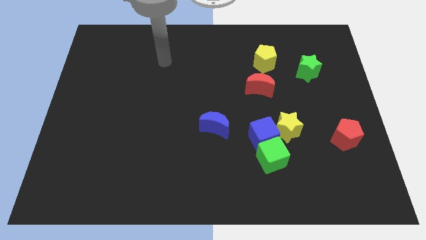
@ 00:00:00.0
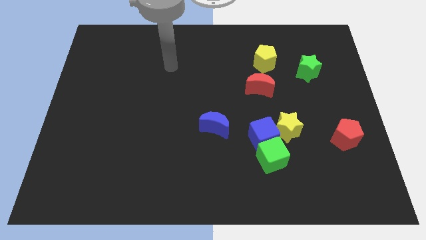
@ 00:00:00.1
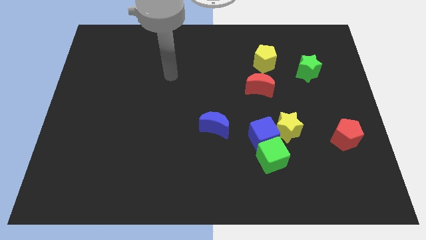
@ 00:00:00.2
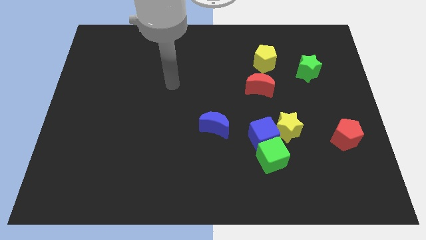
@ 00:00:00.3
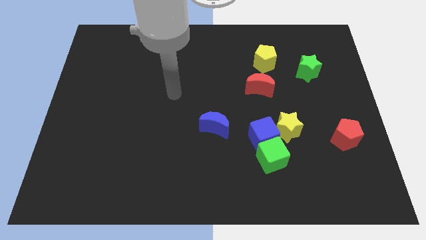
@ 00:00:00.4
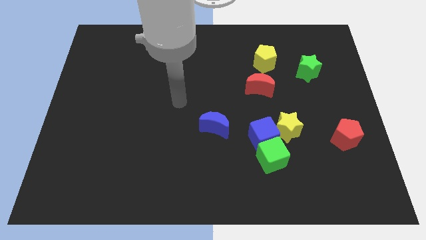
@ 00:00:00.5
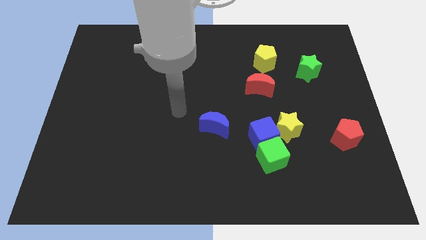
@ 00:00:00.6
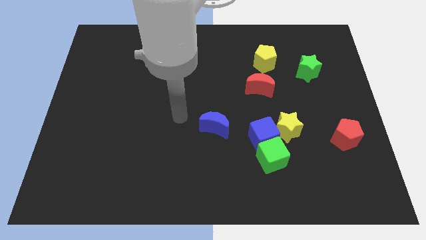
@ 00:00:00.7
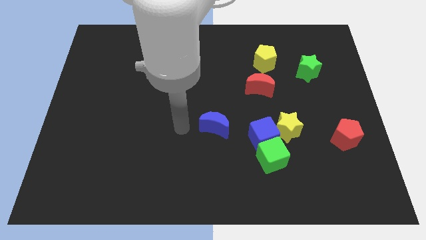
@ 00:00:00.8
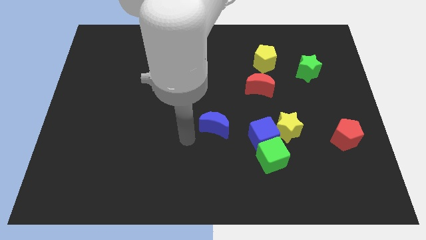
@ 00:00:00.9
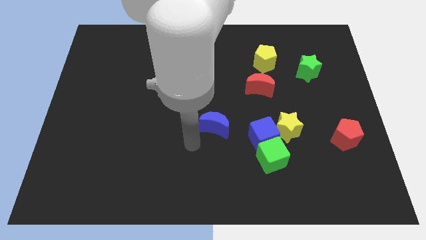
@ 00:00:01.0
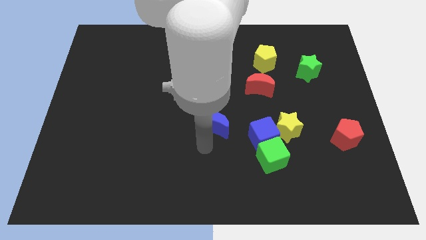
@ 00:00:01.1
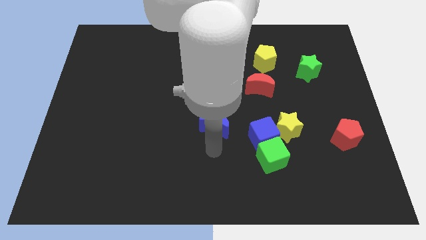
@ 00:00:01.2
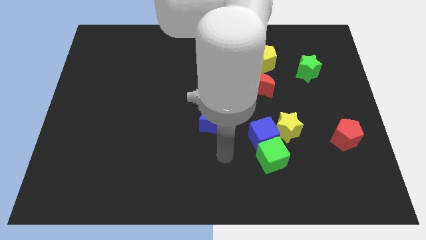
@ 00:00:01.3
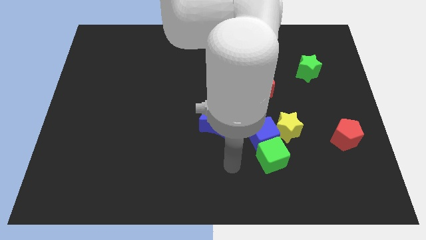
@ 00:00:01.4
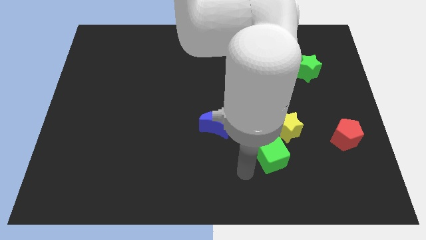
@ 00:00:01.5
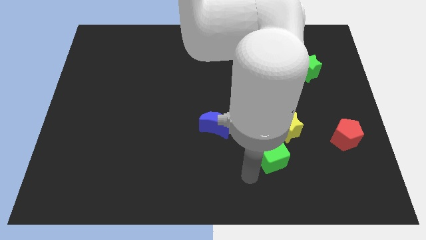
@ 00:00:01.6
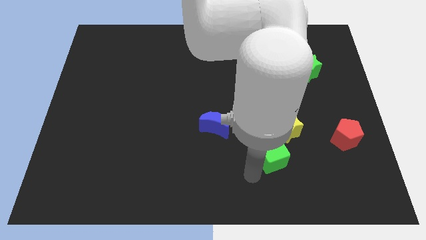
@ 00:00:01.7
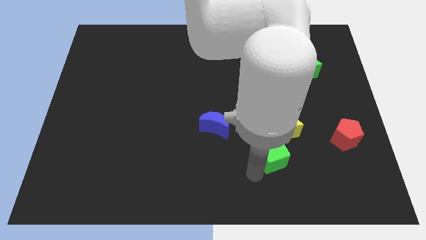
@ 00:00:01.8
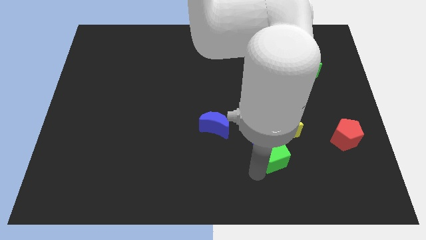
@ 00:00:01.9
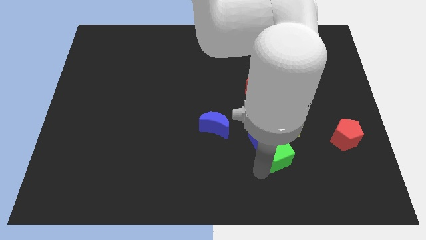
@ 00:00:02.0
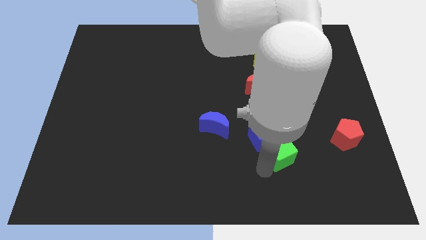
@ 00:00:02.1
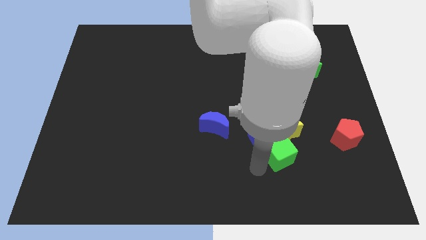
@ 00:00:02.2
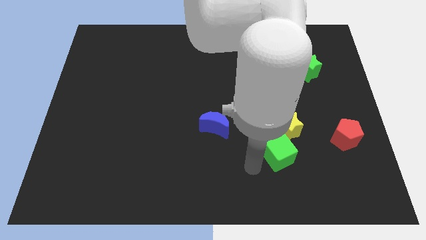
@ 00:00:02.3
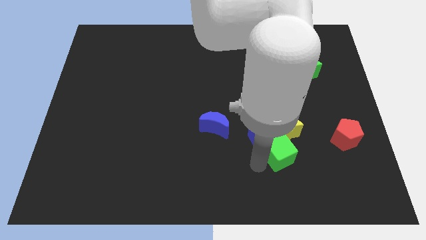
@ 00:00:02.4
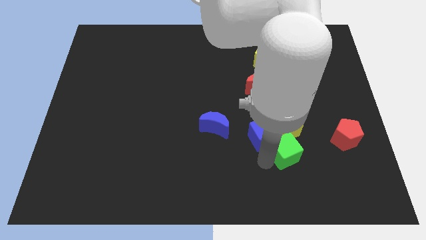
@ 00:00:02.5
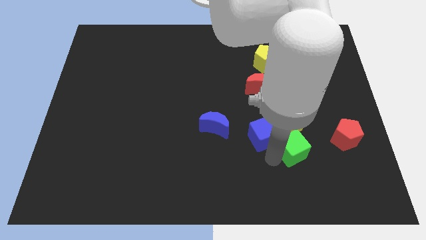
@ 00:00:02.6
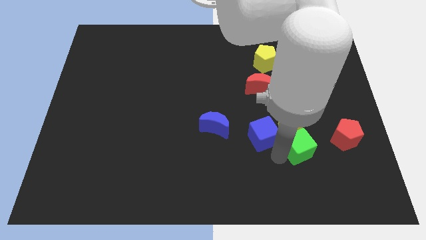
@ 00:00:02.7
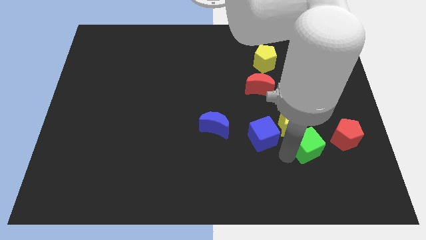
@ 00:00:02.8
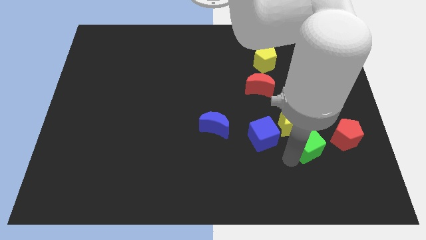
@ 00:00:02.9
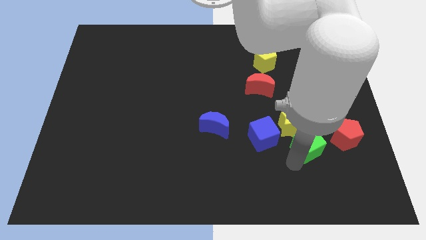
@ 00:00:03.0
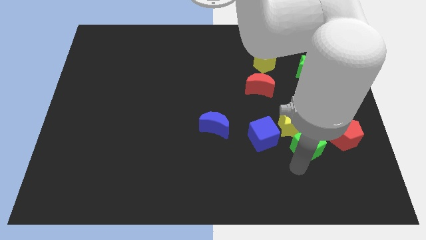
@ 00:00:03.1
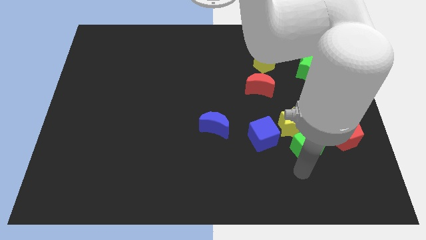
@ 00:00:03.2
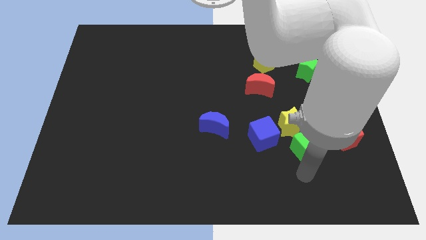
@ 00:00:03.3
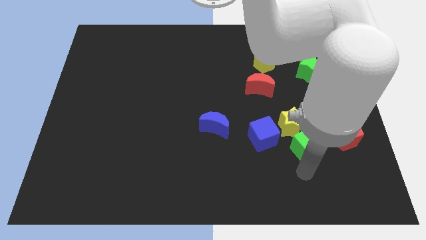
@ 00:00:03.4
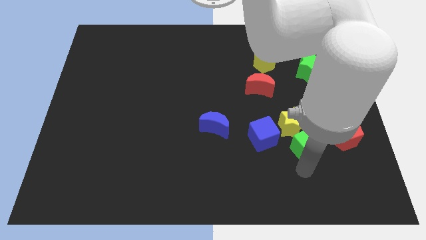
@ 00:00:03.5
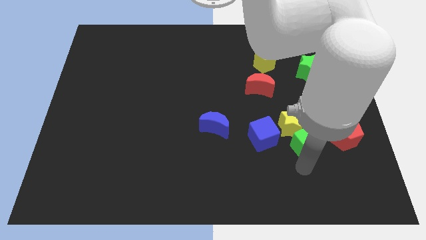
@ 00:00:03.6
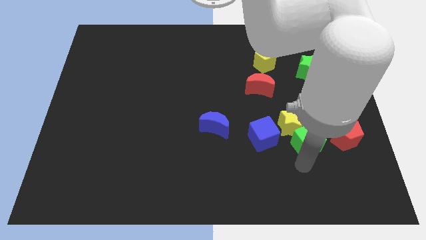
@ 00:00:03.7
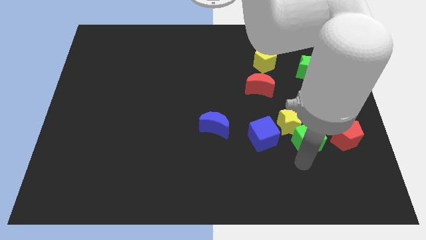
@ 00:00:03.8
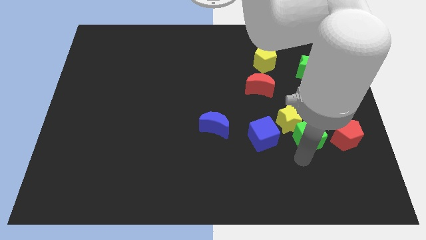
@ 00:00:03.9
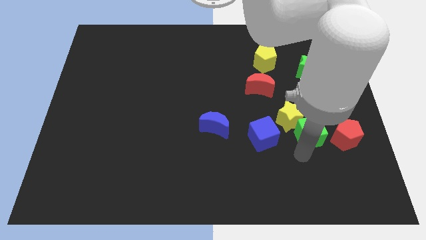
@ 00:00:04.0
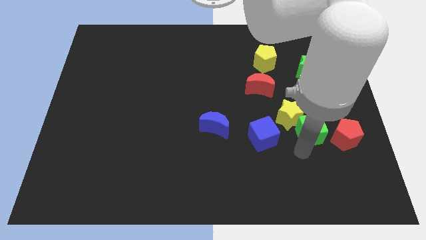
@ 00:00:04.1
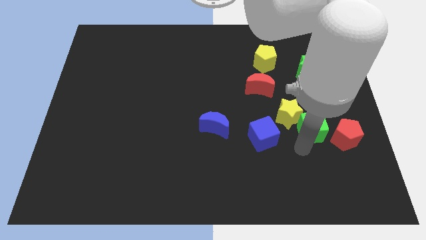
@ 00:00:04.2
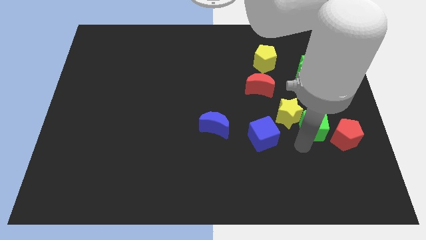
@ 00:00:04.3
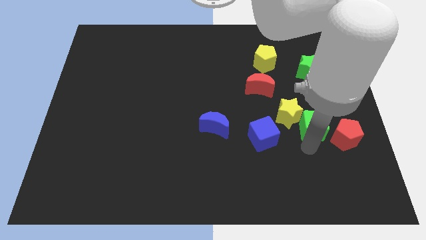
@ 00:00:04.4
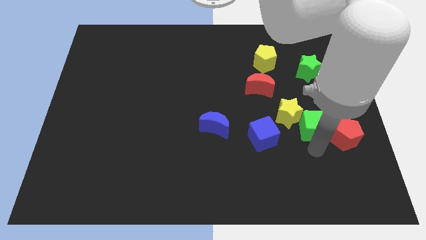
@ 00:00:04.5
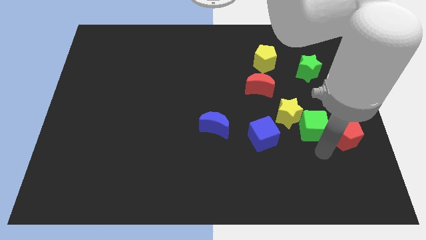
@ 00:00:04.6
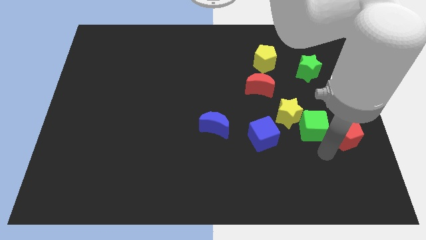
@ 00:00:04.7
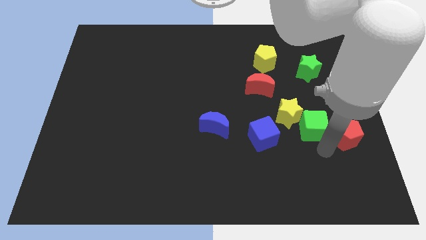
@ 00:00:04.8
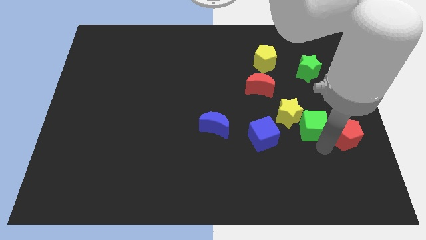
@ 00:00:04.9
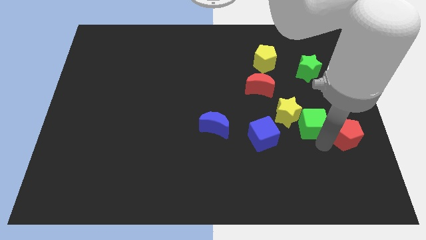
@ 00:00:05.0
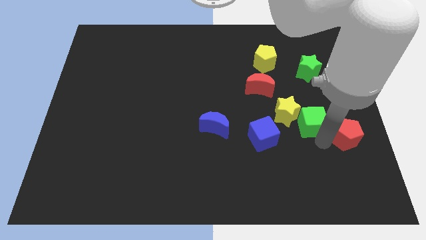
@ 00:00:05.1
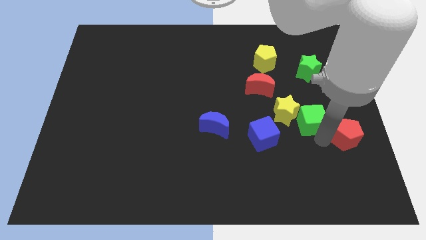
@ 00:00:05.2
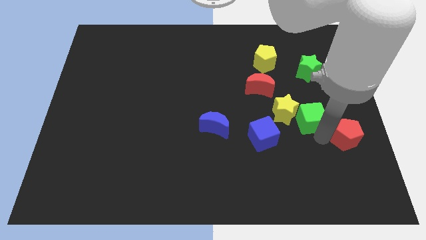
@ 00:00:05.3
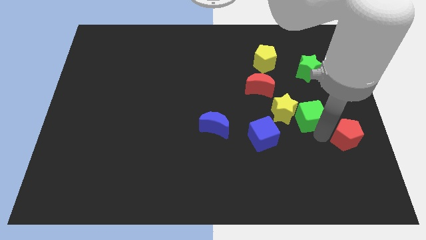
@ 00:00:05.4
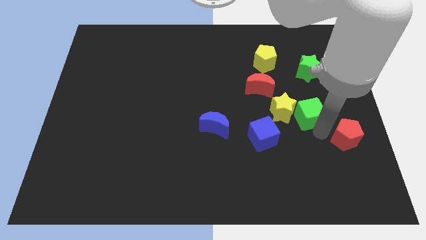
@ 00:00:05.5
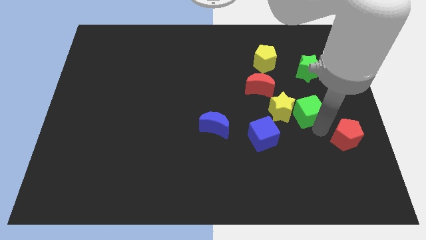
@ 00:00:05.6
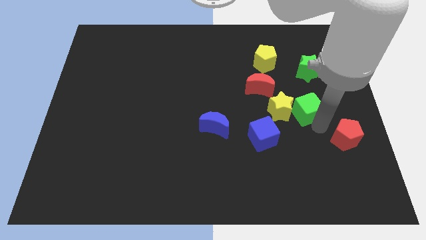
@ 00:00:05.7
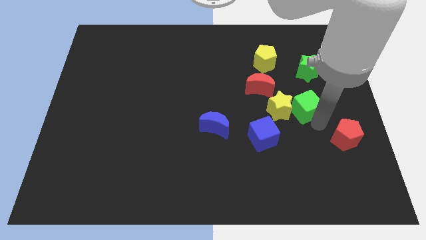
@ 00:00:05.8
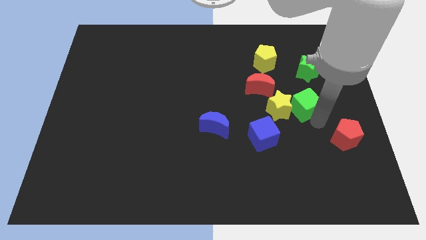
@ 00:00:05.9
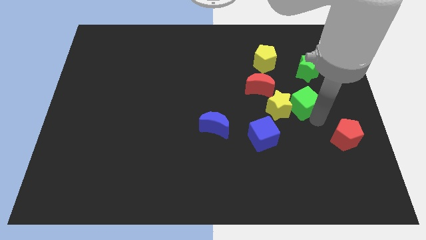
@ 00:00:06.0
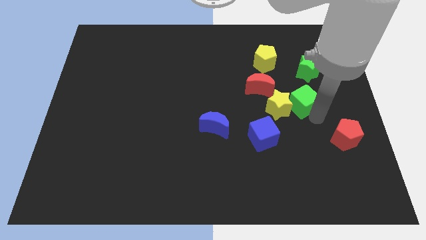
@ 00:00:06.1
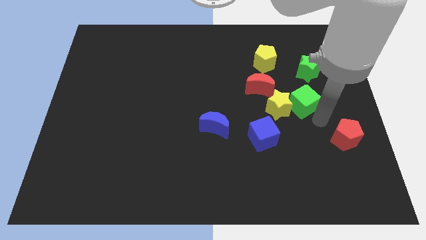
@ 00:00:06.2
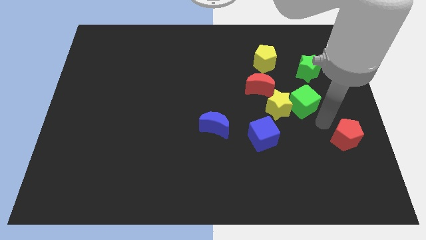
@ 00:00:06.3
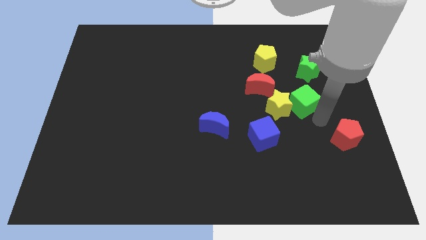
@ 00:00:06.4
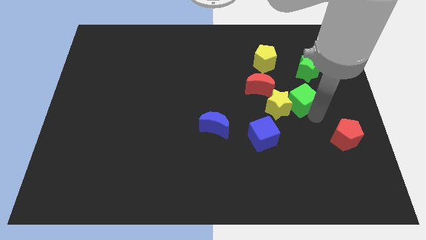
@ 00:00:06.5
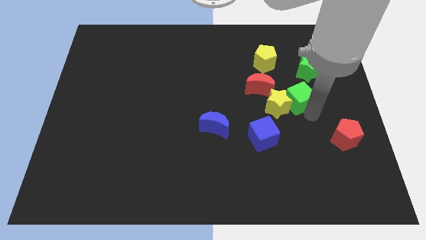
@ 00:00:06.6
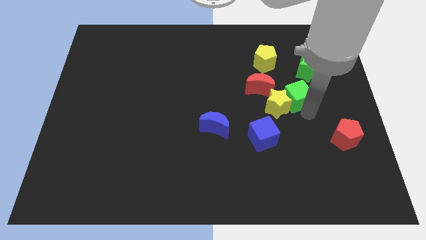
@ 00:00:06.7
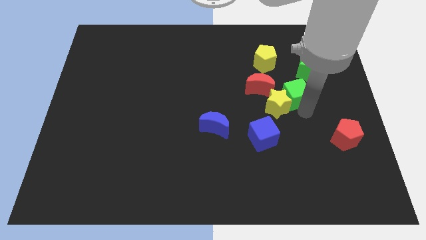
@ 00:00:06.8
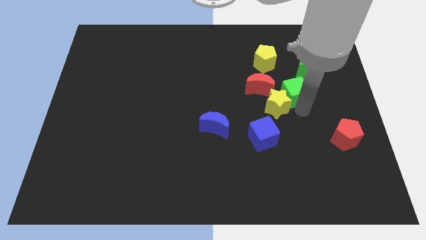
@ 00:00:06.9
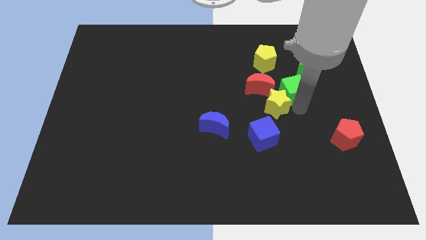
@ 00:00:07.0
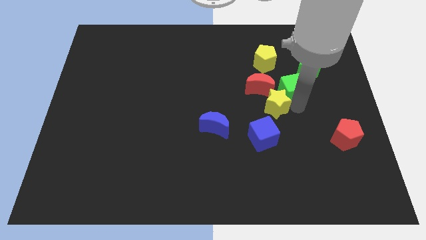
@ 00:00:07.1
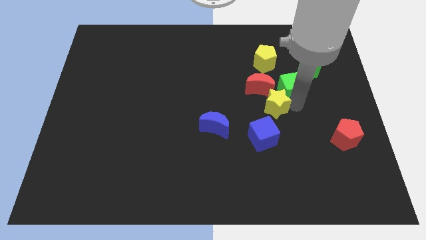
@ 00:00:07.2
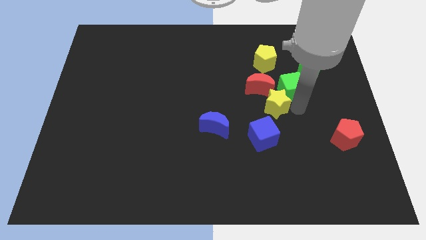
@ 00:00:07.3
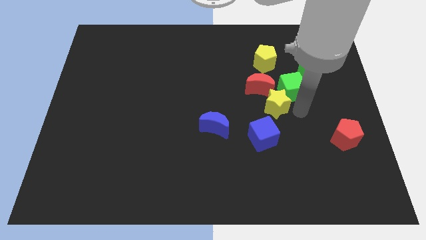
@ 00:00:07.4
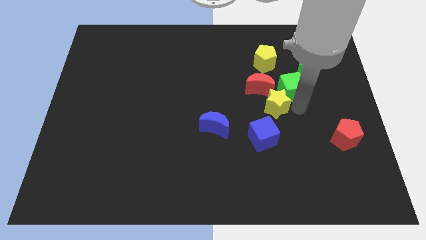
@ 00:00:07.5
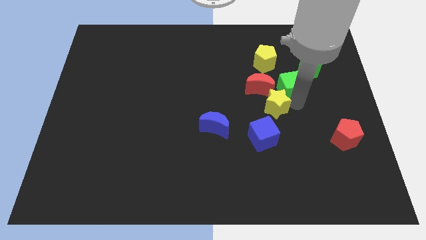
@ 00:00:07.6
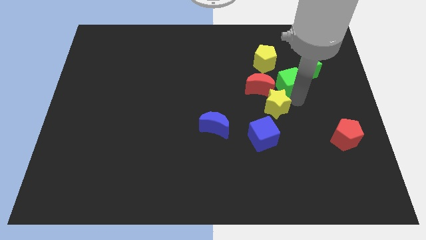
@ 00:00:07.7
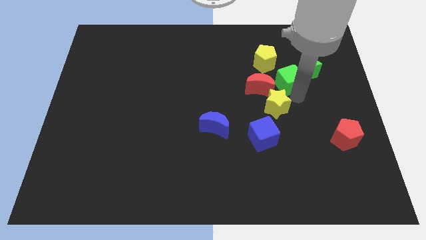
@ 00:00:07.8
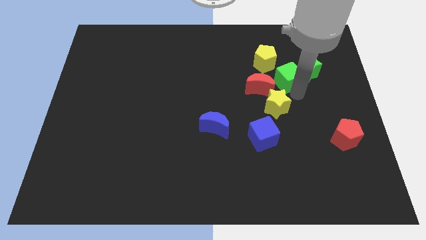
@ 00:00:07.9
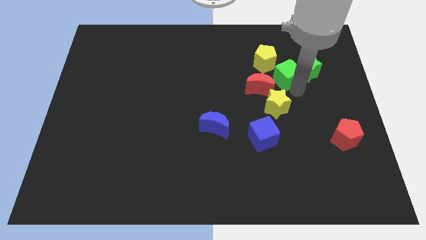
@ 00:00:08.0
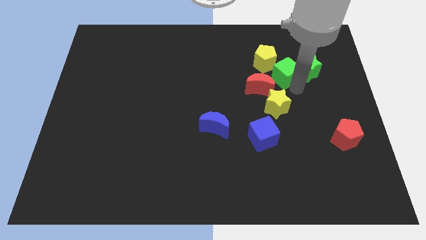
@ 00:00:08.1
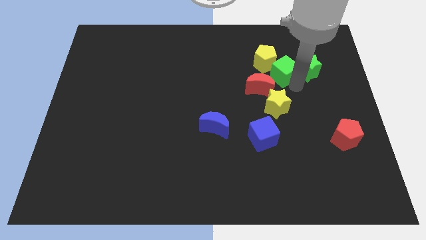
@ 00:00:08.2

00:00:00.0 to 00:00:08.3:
put the green cube towards the yellow pentagon
